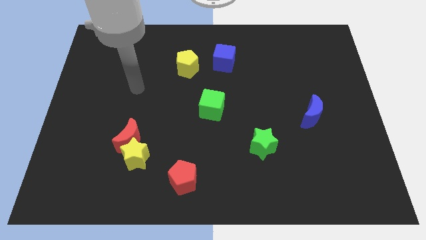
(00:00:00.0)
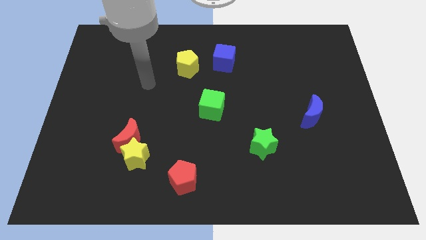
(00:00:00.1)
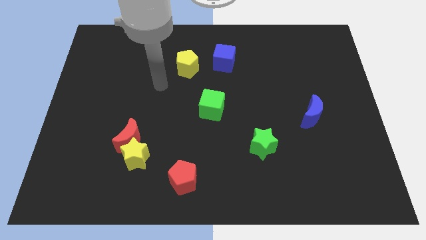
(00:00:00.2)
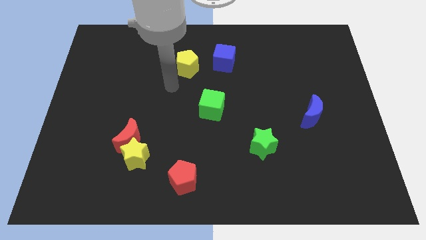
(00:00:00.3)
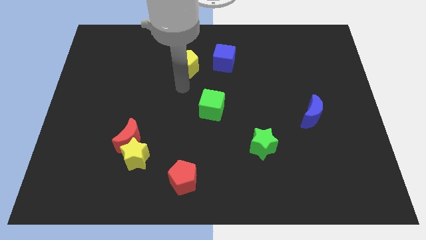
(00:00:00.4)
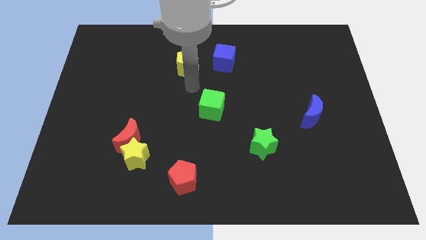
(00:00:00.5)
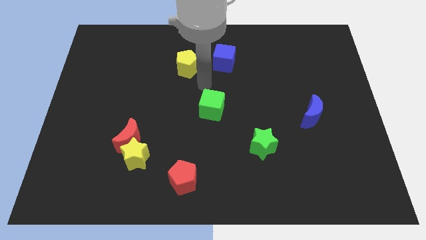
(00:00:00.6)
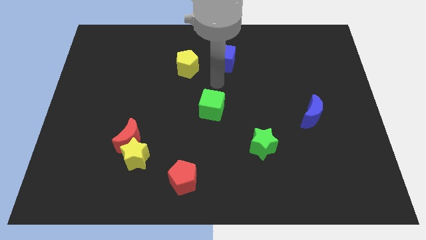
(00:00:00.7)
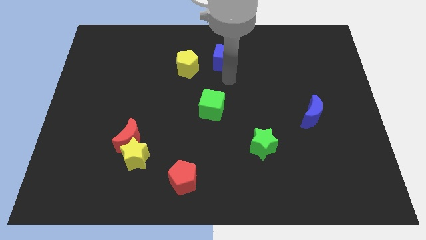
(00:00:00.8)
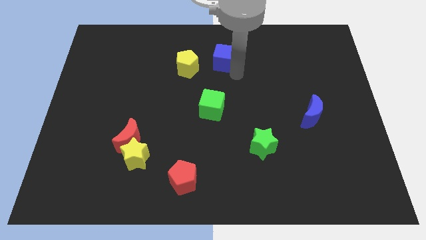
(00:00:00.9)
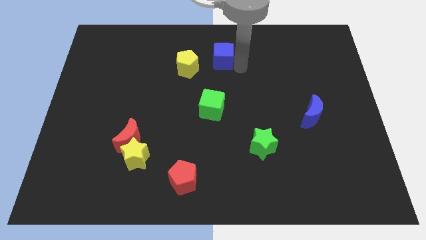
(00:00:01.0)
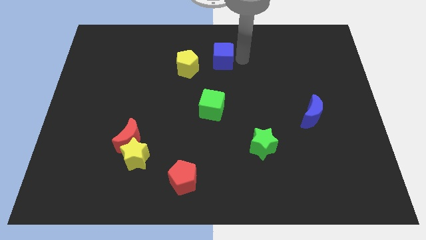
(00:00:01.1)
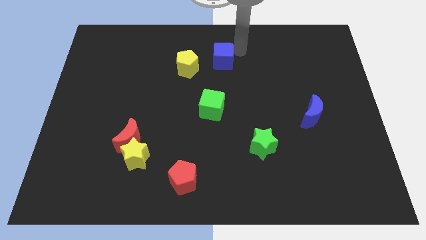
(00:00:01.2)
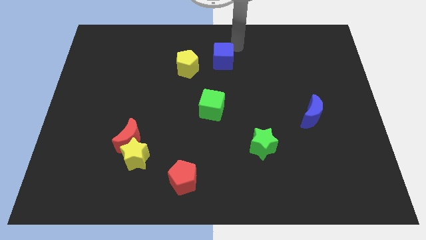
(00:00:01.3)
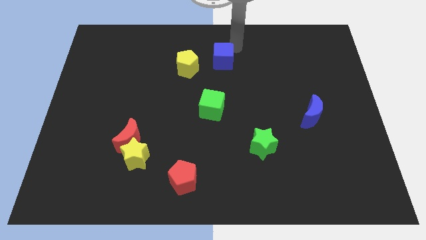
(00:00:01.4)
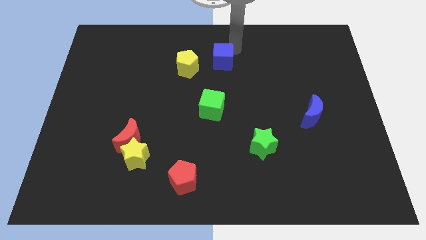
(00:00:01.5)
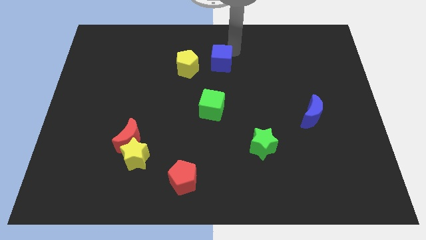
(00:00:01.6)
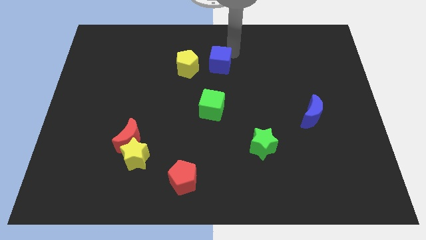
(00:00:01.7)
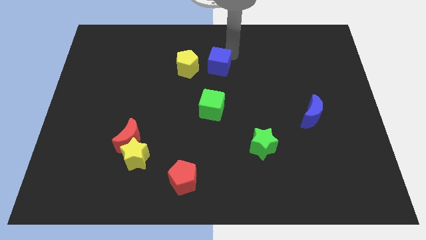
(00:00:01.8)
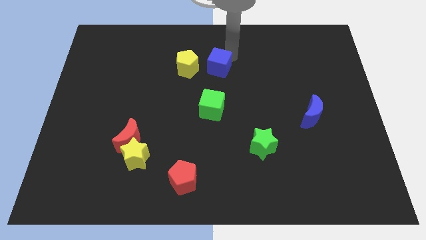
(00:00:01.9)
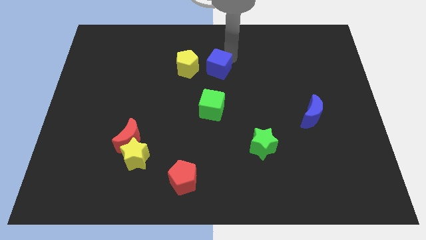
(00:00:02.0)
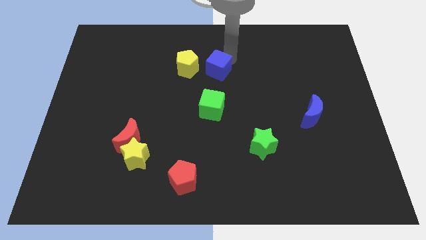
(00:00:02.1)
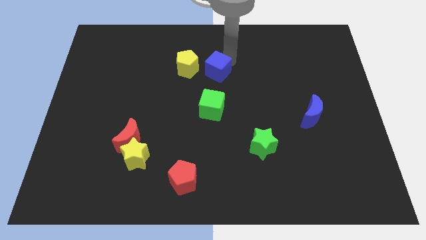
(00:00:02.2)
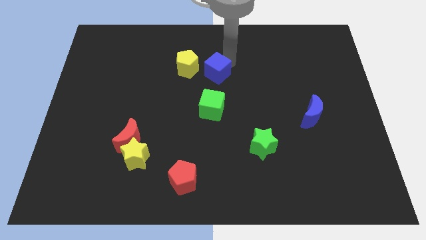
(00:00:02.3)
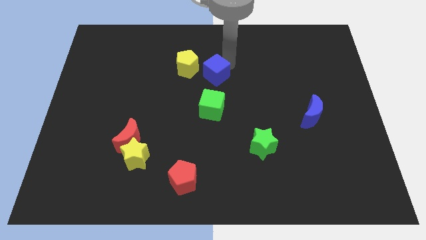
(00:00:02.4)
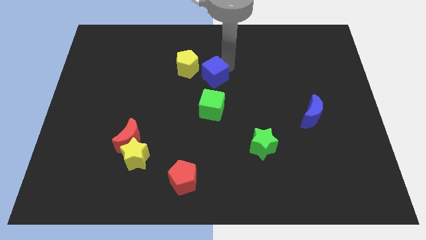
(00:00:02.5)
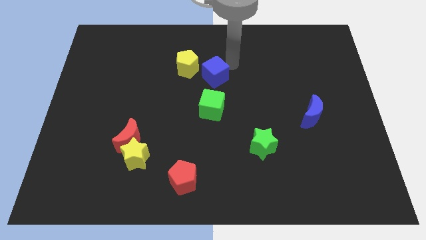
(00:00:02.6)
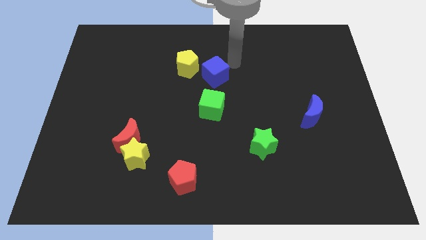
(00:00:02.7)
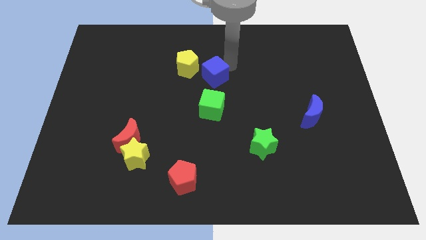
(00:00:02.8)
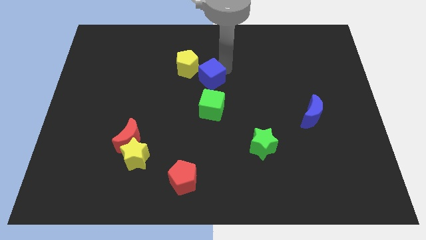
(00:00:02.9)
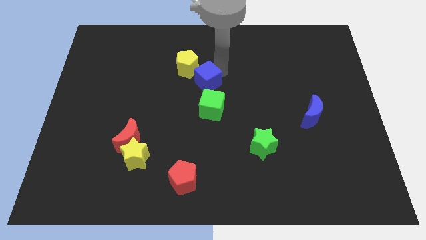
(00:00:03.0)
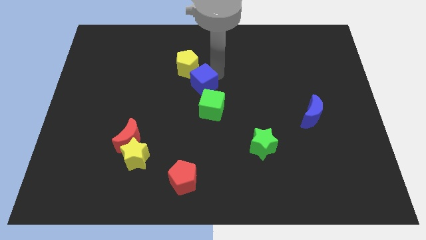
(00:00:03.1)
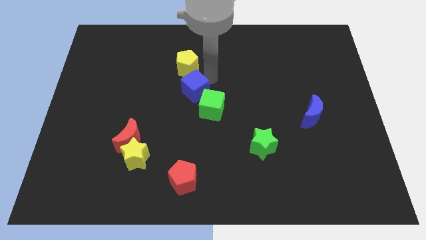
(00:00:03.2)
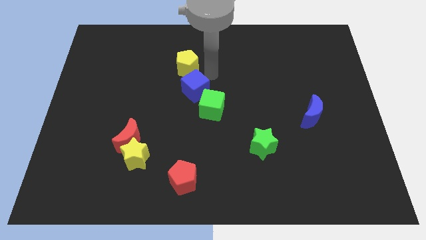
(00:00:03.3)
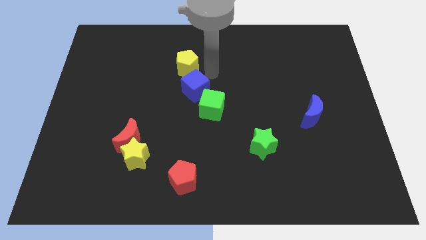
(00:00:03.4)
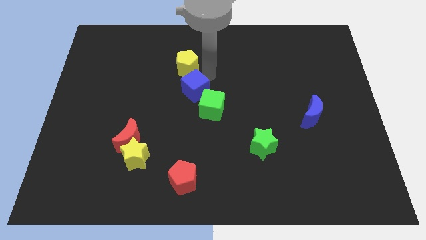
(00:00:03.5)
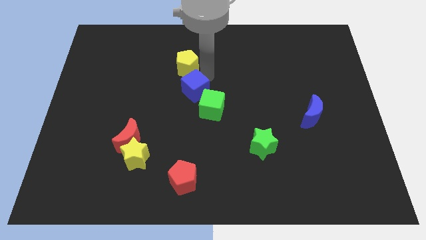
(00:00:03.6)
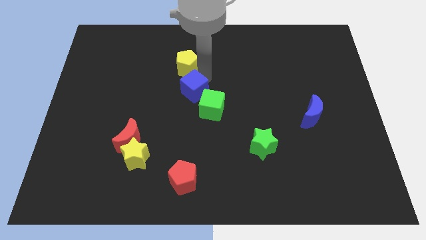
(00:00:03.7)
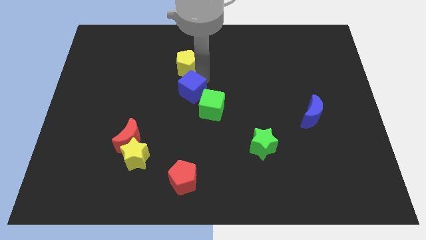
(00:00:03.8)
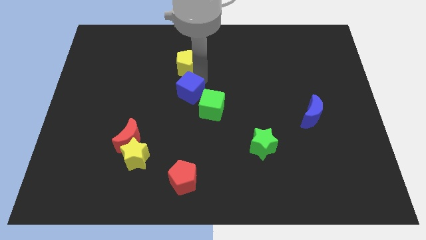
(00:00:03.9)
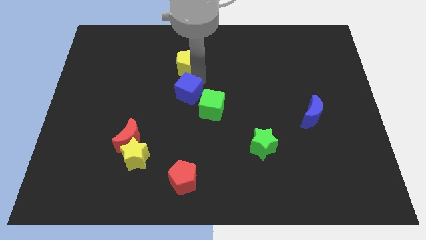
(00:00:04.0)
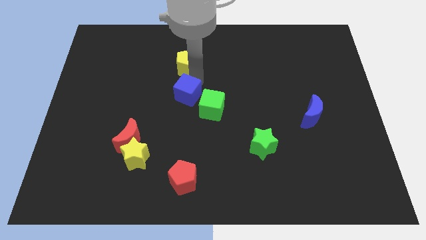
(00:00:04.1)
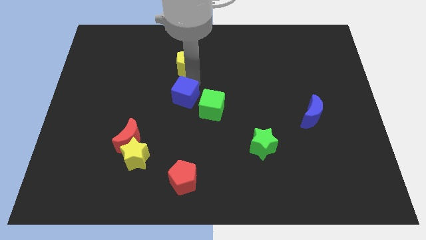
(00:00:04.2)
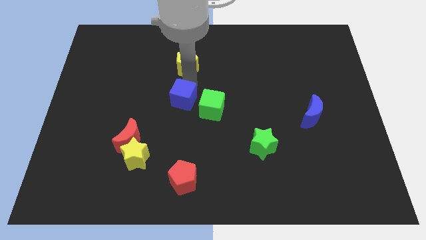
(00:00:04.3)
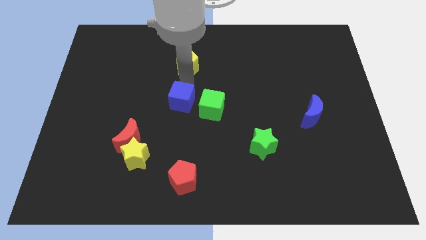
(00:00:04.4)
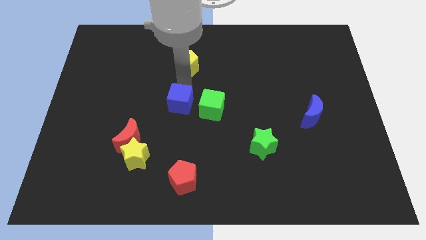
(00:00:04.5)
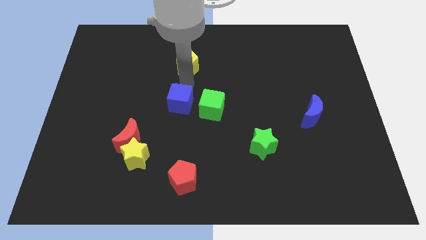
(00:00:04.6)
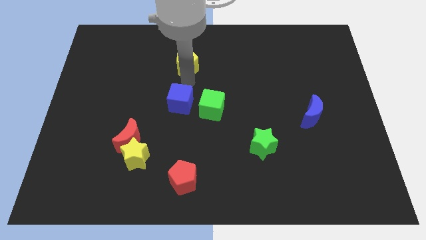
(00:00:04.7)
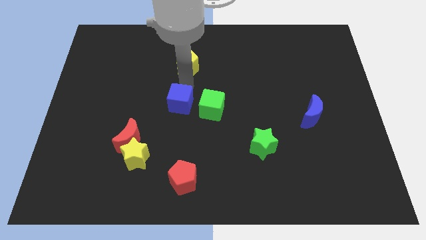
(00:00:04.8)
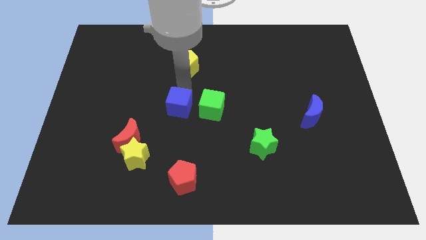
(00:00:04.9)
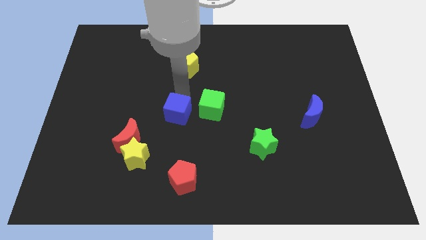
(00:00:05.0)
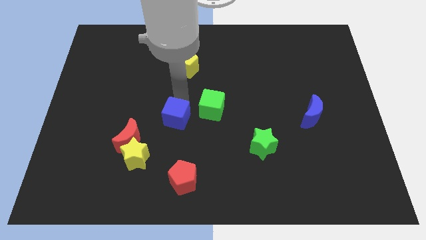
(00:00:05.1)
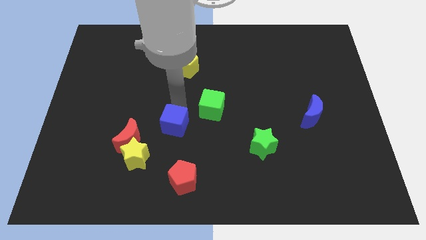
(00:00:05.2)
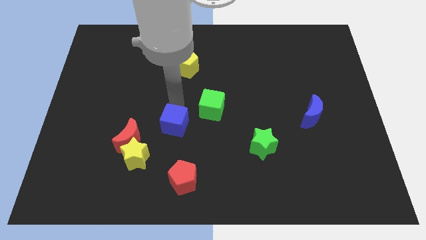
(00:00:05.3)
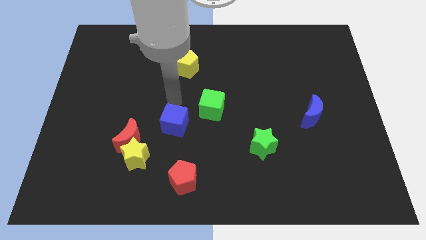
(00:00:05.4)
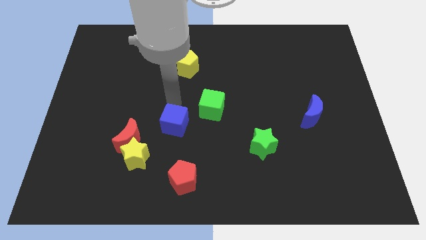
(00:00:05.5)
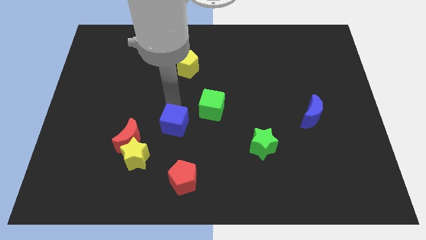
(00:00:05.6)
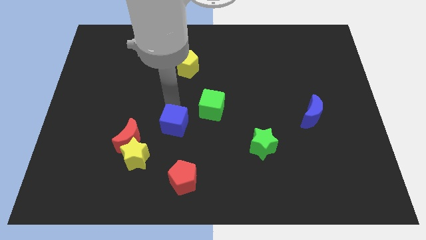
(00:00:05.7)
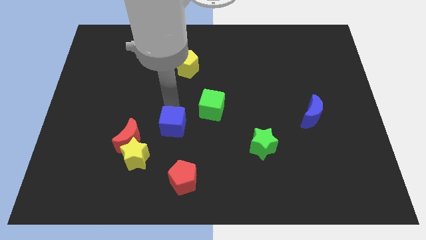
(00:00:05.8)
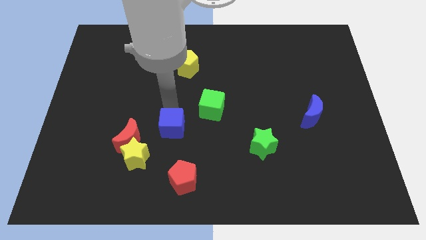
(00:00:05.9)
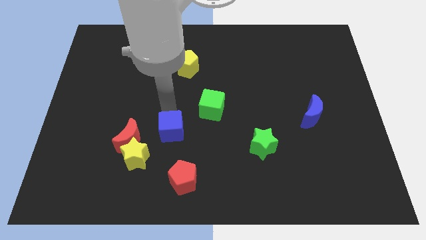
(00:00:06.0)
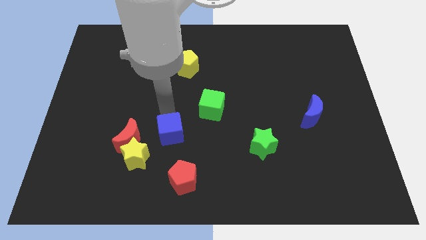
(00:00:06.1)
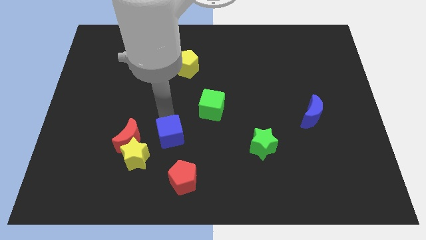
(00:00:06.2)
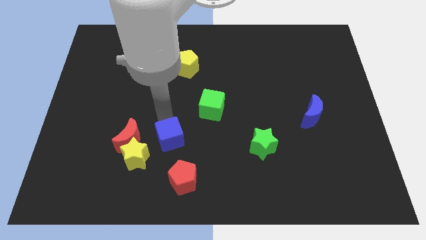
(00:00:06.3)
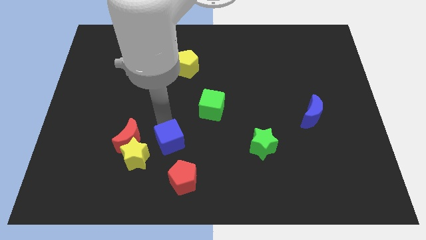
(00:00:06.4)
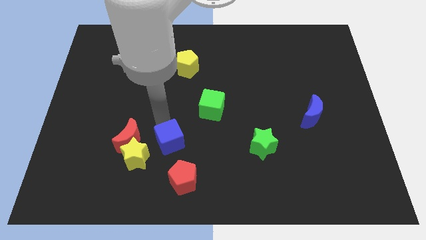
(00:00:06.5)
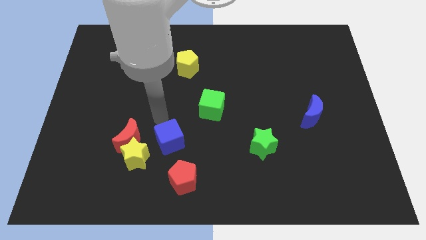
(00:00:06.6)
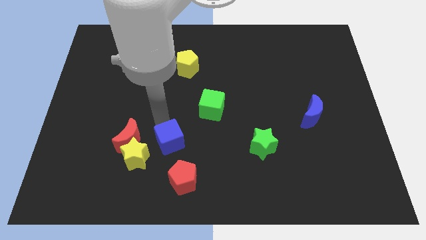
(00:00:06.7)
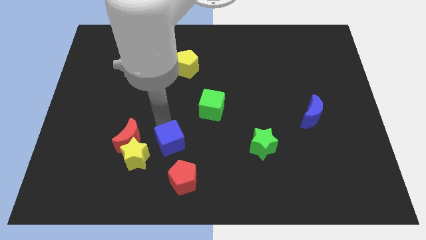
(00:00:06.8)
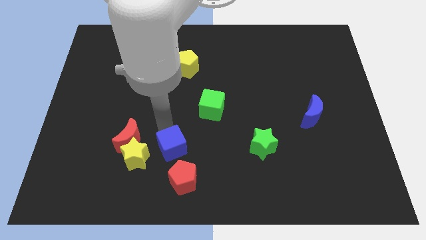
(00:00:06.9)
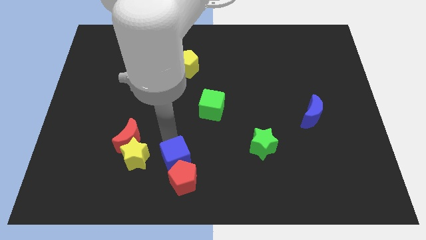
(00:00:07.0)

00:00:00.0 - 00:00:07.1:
slide the blue cube next to the red pentagon
